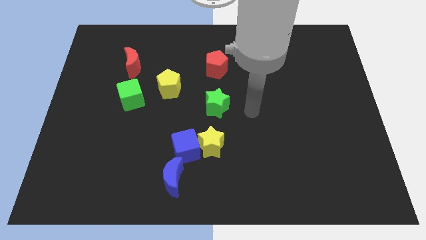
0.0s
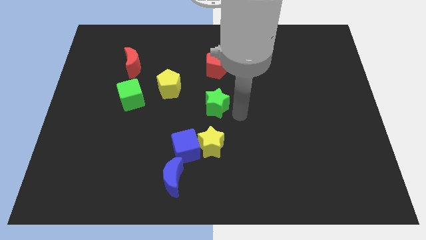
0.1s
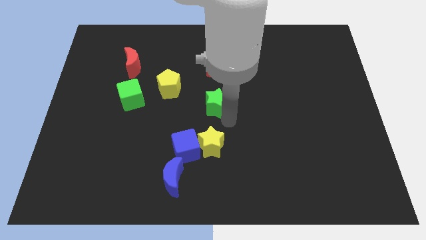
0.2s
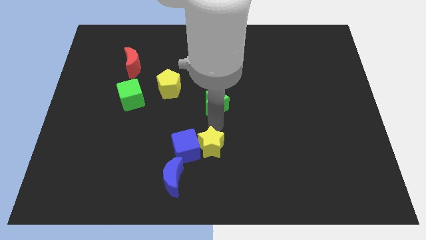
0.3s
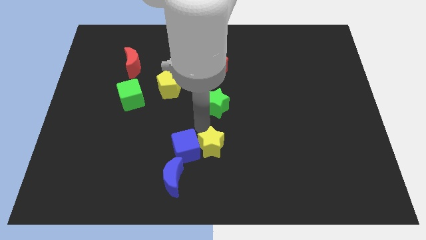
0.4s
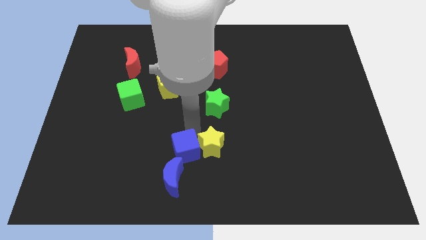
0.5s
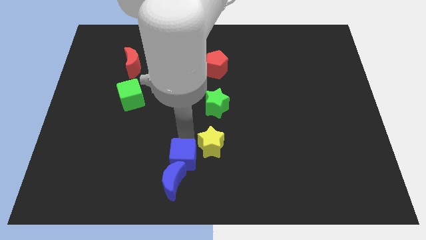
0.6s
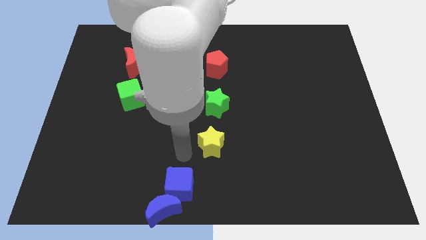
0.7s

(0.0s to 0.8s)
move the yellow star away from the blue cube

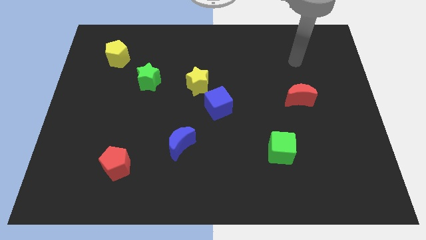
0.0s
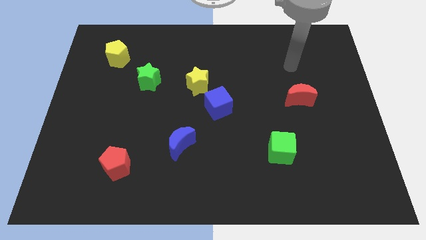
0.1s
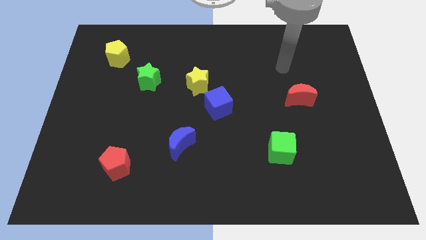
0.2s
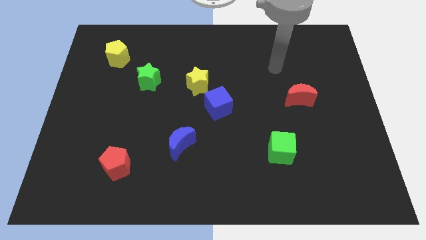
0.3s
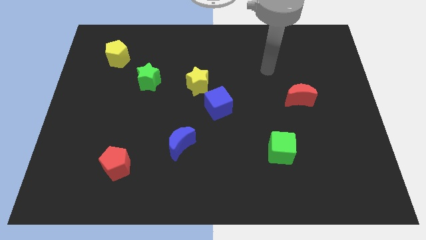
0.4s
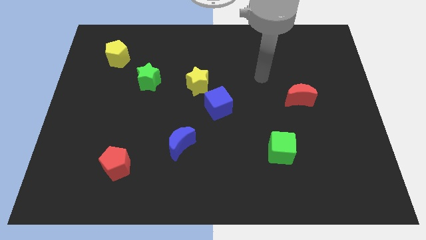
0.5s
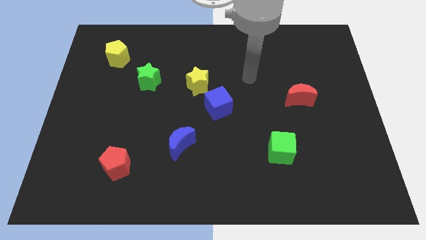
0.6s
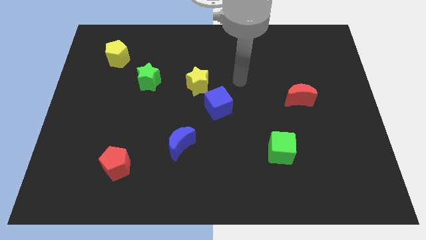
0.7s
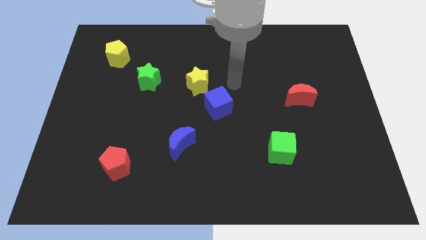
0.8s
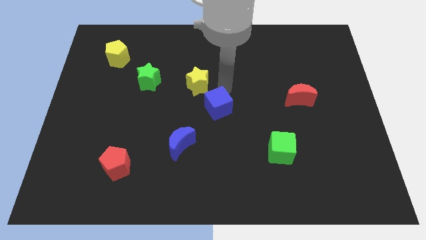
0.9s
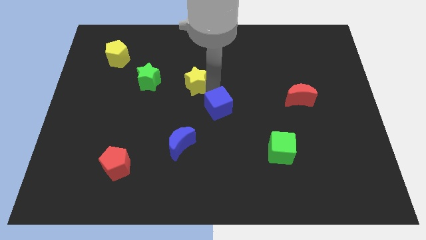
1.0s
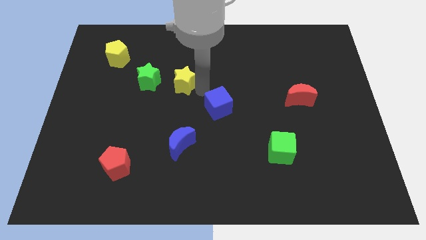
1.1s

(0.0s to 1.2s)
separate the blue cube from the yellow star

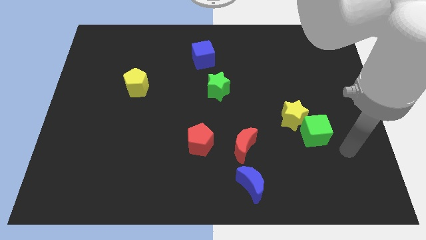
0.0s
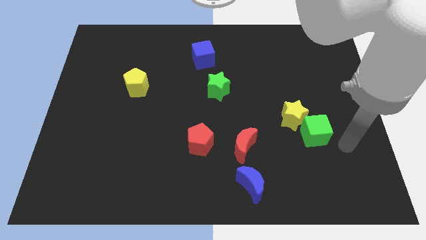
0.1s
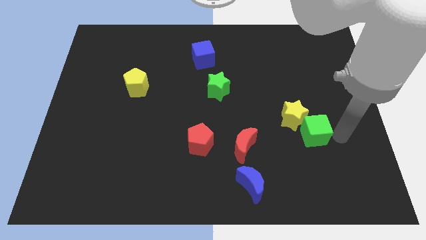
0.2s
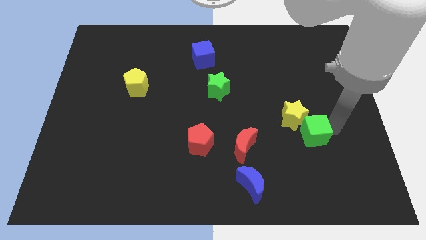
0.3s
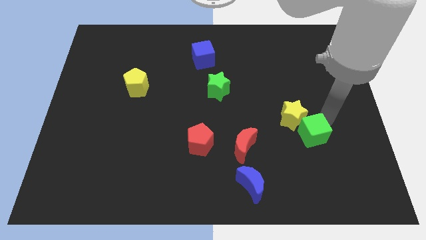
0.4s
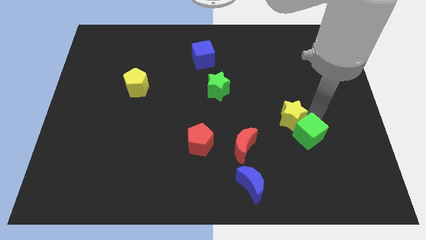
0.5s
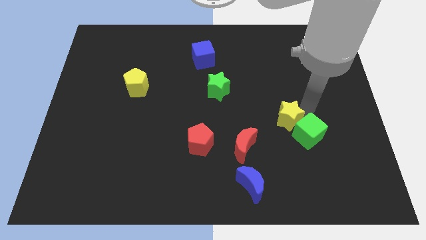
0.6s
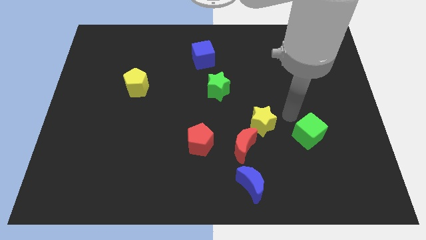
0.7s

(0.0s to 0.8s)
pull the green cube apart from the yellow star

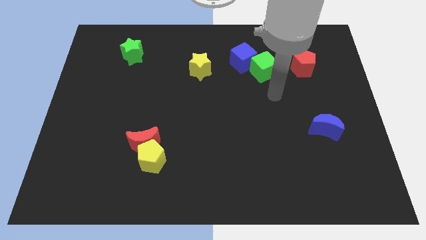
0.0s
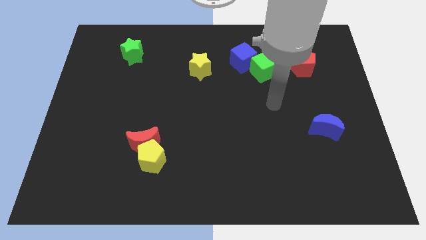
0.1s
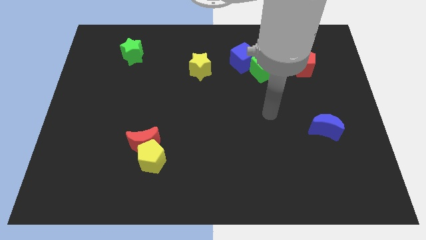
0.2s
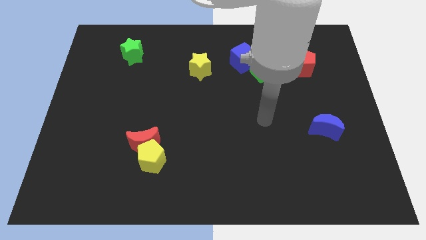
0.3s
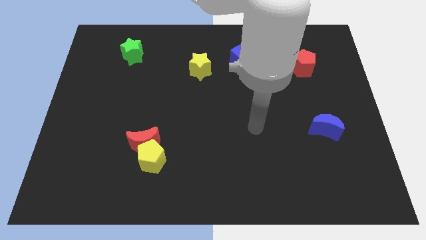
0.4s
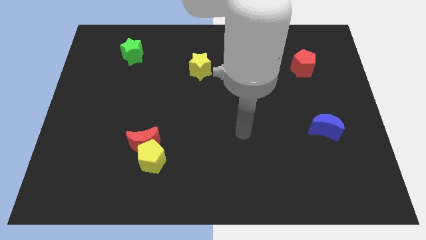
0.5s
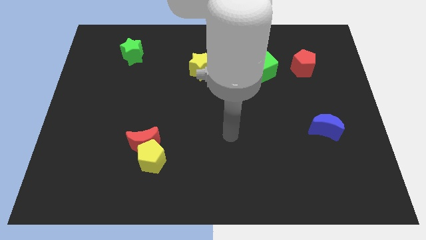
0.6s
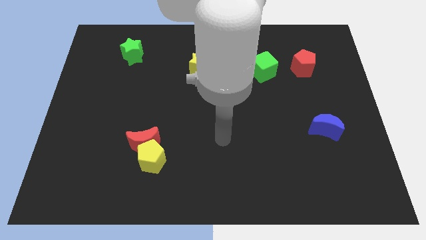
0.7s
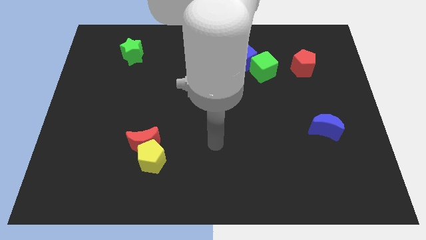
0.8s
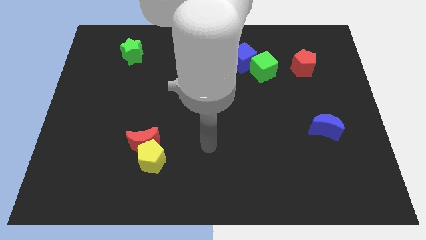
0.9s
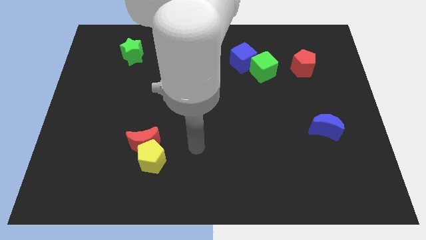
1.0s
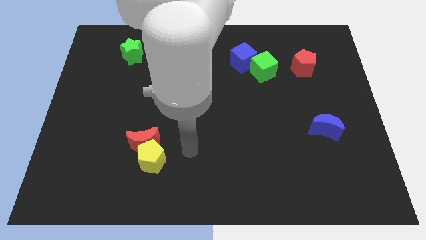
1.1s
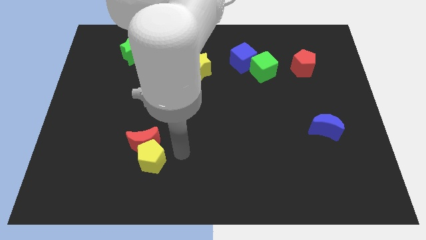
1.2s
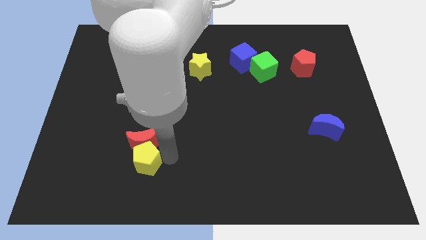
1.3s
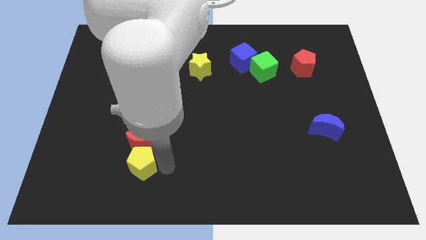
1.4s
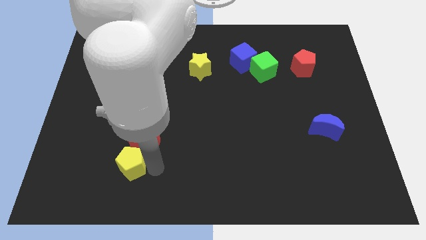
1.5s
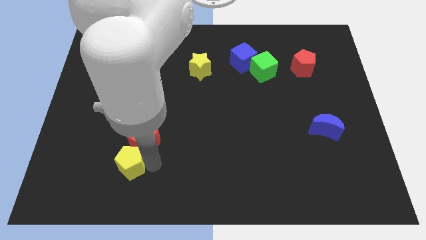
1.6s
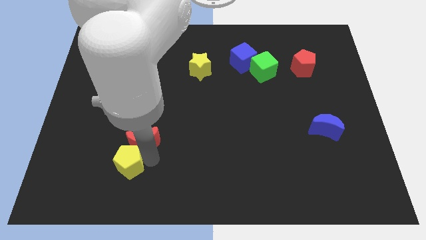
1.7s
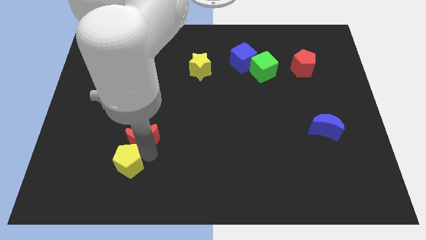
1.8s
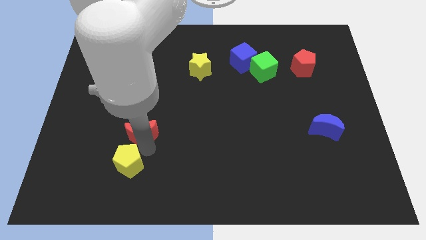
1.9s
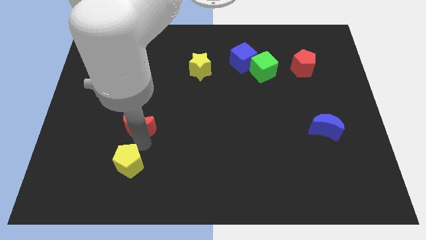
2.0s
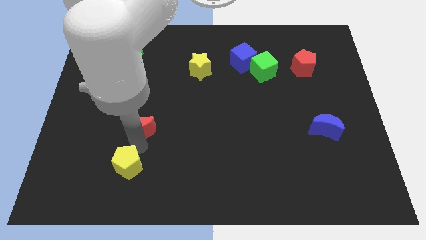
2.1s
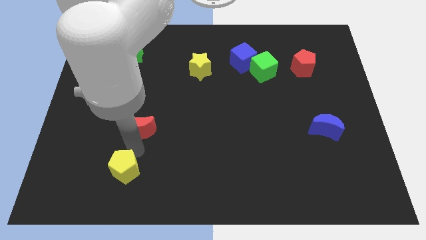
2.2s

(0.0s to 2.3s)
move the red moon away from the yellow pentagon

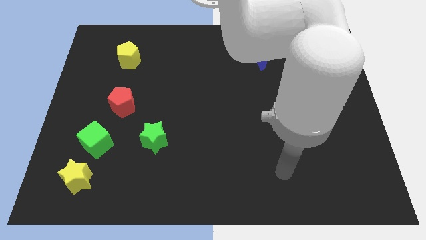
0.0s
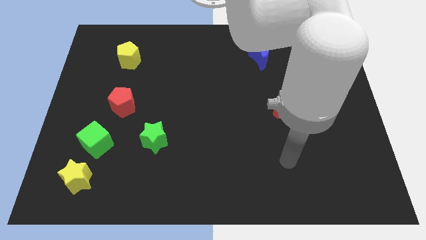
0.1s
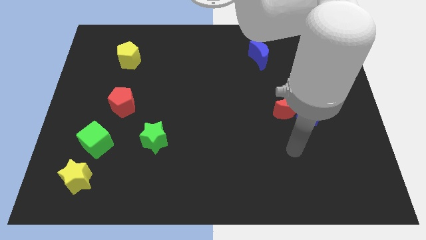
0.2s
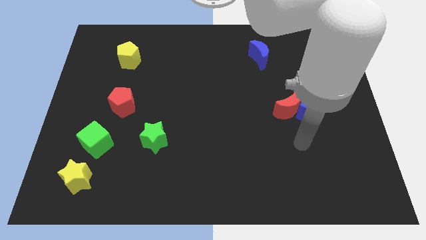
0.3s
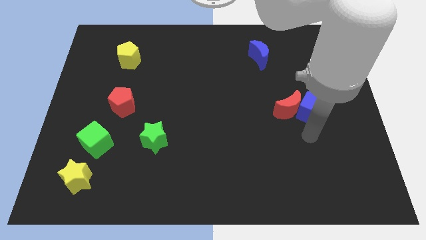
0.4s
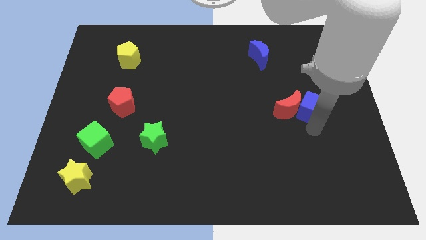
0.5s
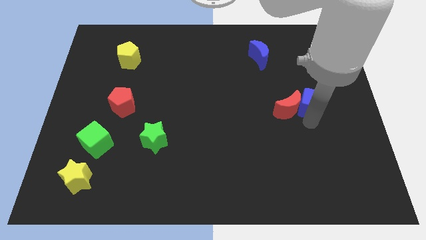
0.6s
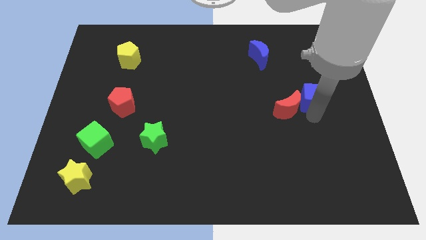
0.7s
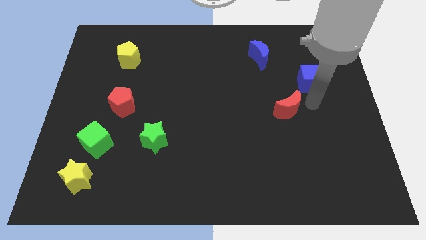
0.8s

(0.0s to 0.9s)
separate the red moon from the blue cube

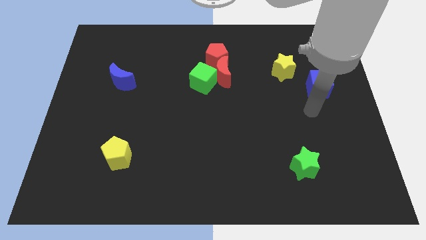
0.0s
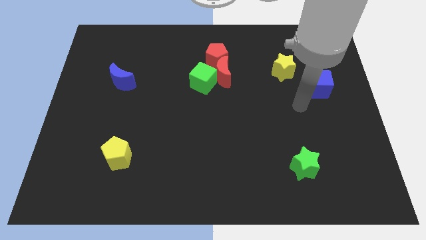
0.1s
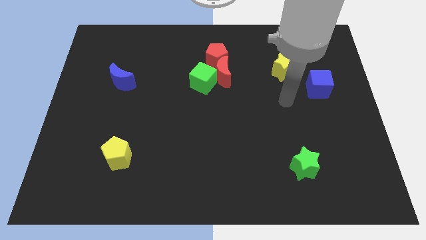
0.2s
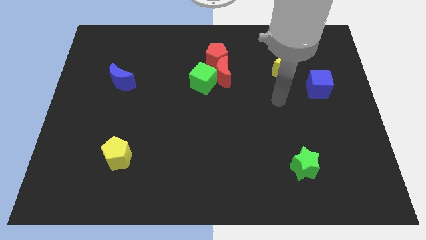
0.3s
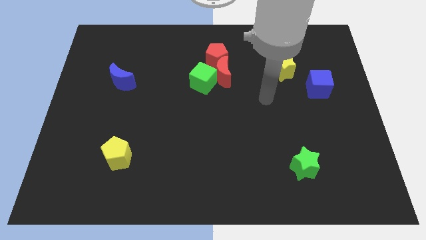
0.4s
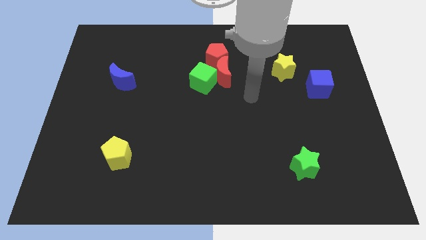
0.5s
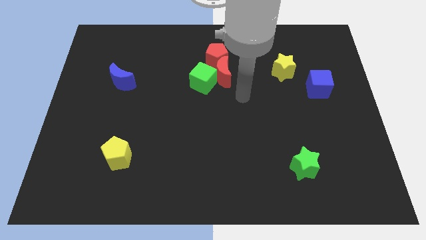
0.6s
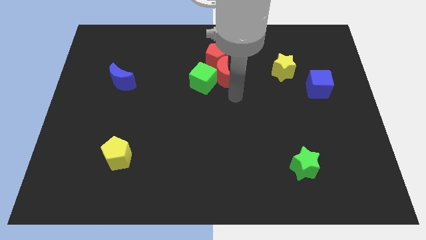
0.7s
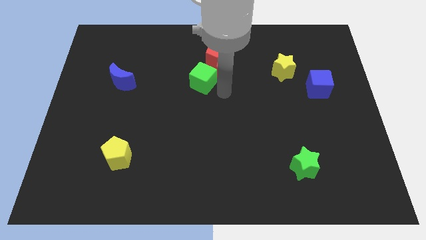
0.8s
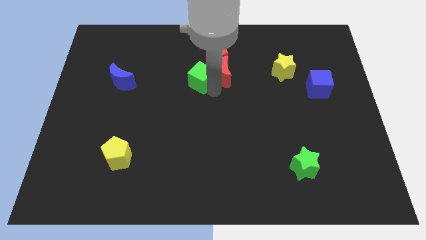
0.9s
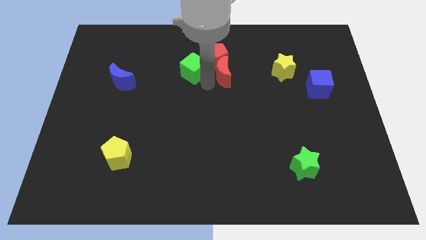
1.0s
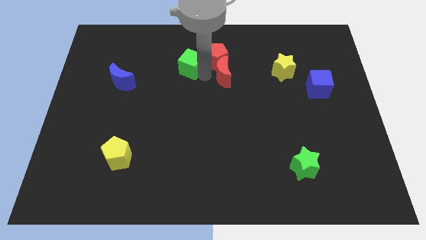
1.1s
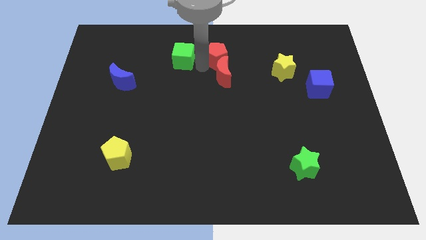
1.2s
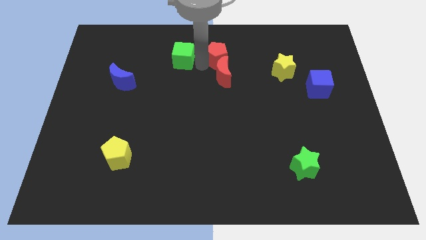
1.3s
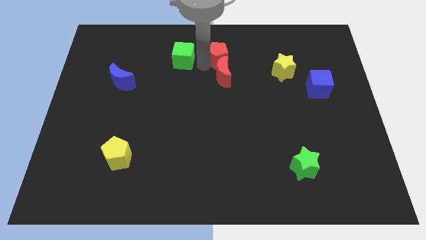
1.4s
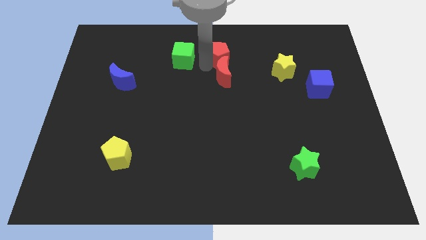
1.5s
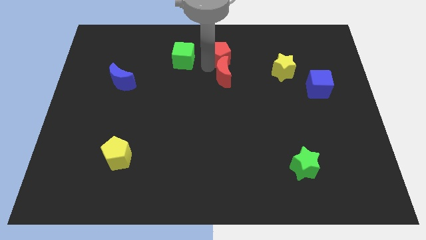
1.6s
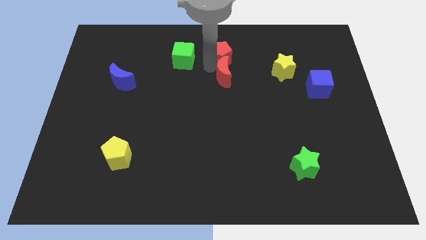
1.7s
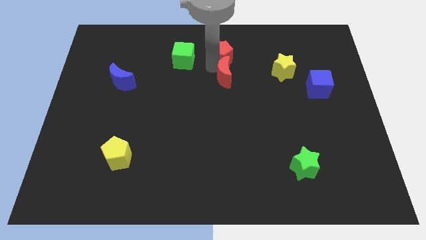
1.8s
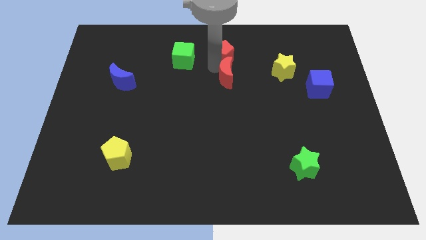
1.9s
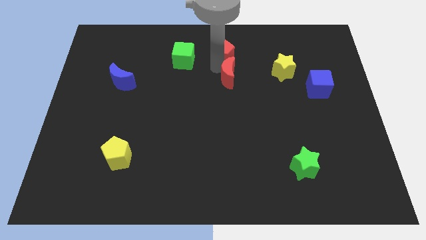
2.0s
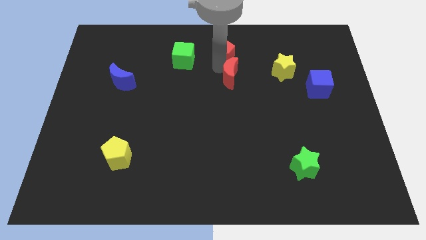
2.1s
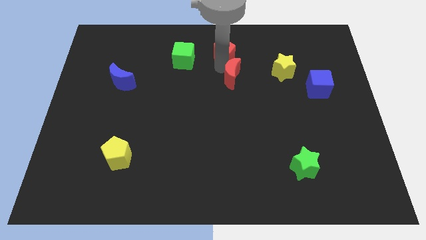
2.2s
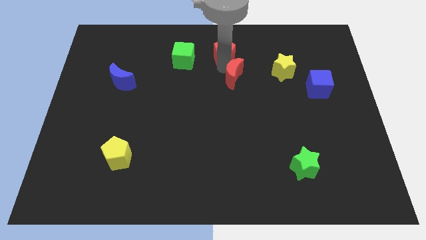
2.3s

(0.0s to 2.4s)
separate the red moon from the green cube and red pentagon

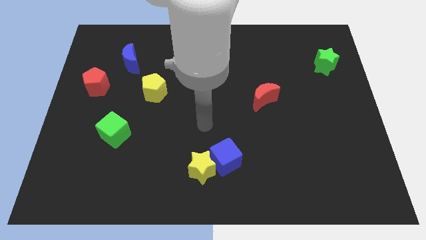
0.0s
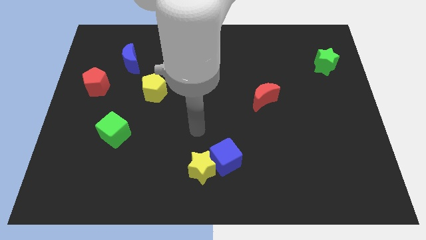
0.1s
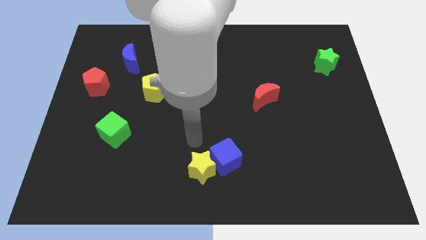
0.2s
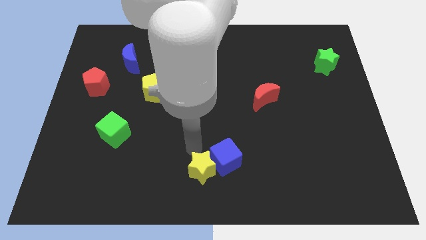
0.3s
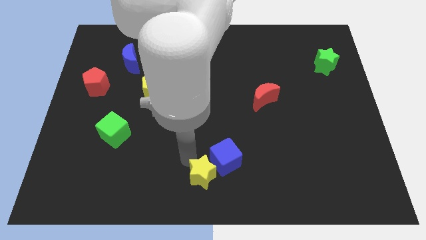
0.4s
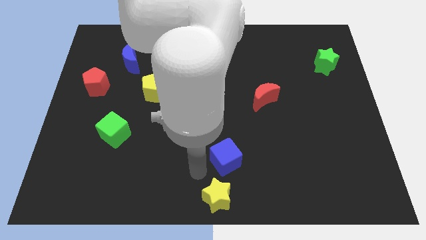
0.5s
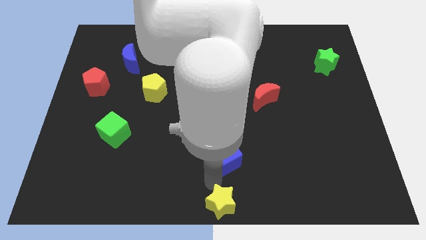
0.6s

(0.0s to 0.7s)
pull the blue cube apart from the yellow star

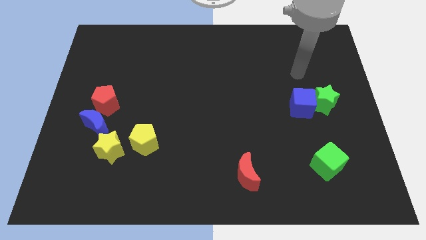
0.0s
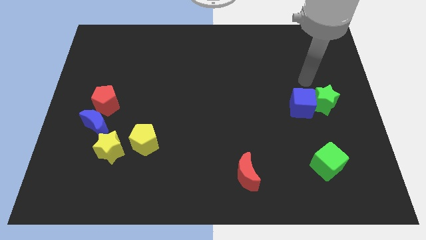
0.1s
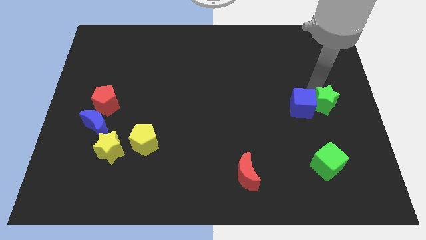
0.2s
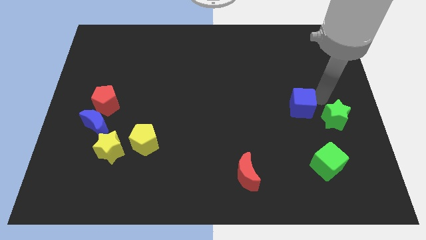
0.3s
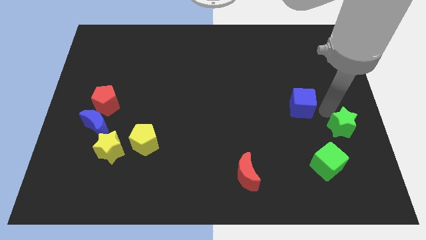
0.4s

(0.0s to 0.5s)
pull the blue cube apart from the green star
